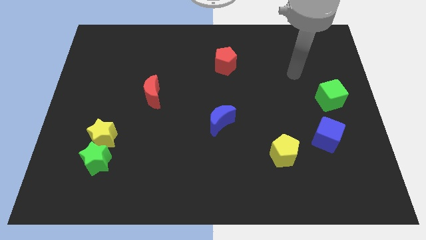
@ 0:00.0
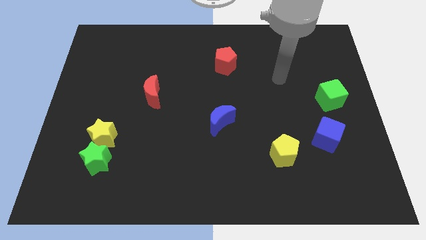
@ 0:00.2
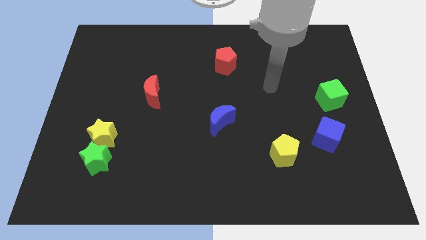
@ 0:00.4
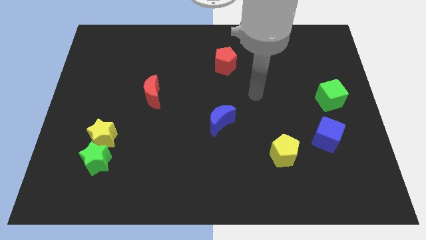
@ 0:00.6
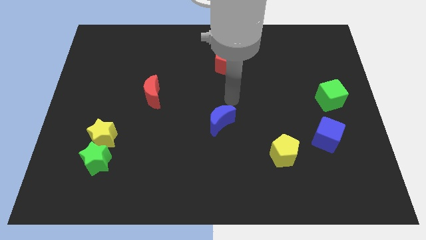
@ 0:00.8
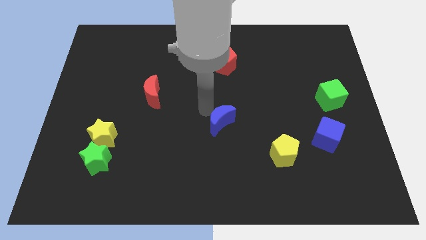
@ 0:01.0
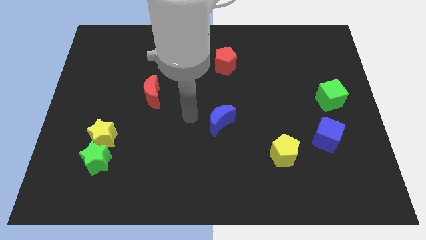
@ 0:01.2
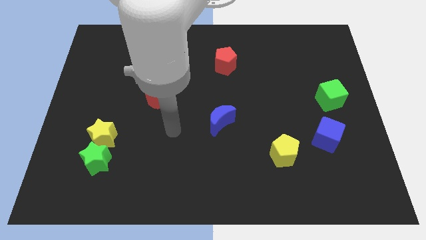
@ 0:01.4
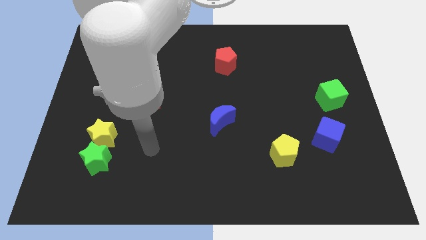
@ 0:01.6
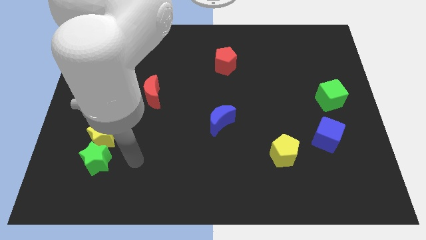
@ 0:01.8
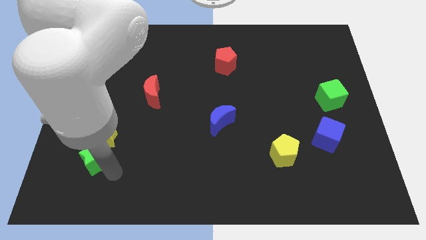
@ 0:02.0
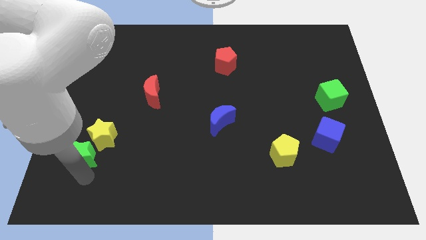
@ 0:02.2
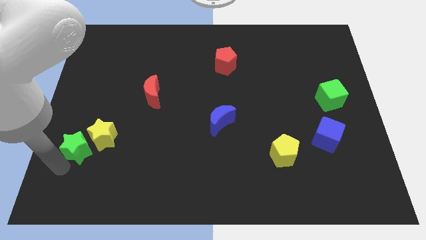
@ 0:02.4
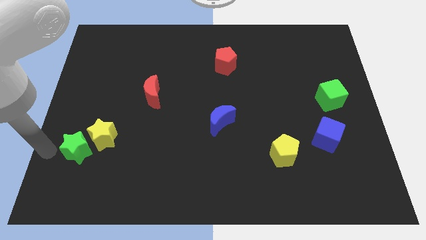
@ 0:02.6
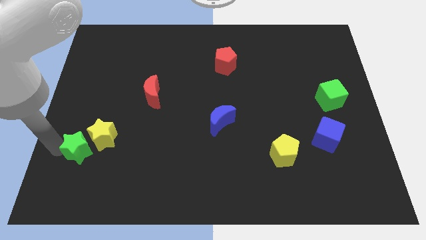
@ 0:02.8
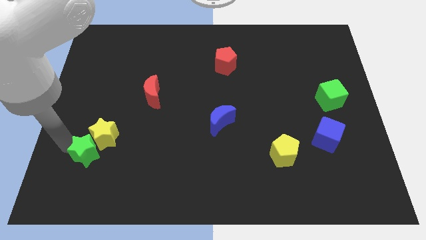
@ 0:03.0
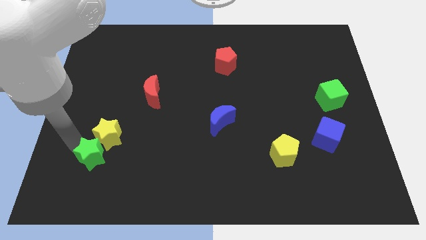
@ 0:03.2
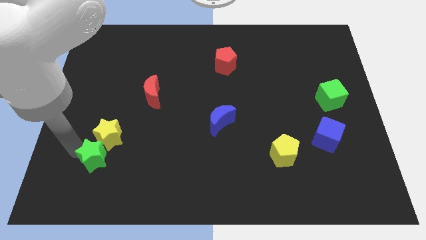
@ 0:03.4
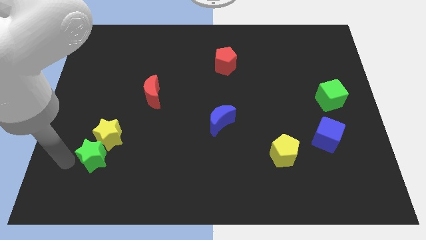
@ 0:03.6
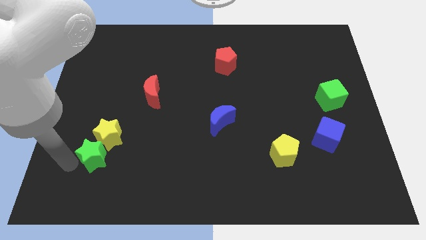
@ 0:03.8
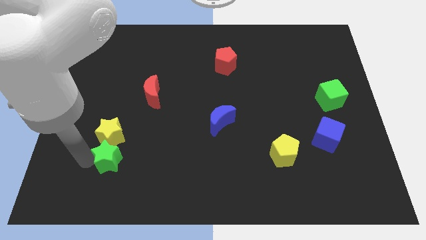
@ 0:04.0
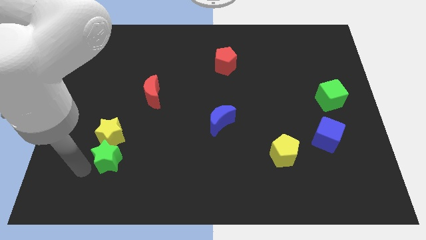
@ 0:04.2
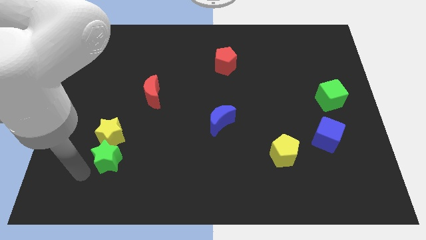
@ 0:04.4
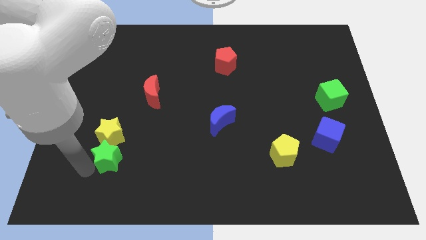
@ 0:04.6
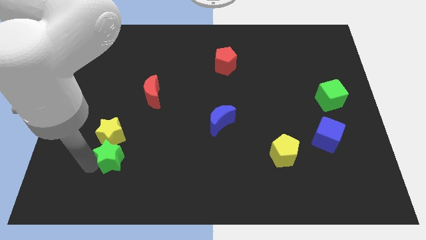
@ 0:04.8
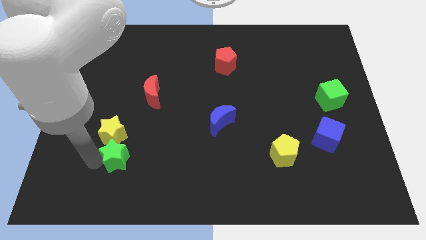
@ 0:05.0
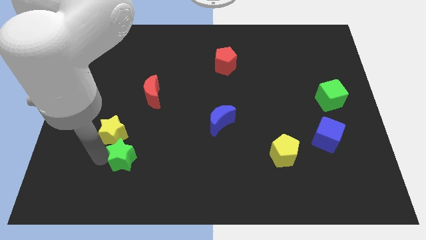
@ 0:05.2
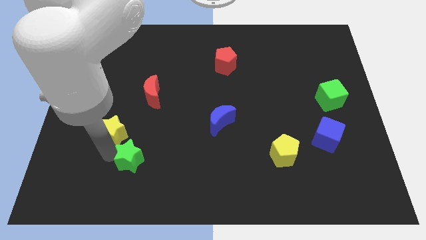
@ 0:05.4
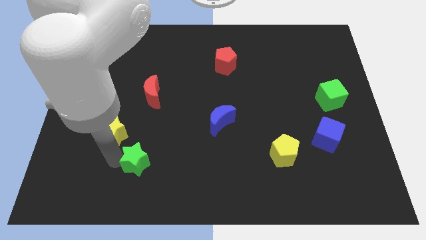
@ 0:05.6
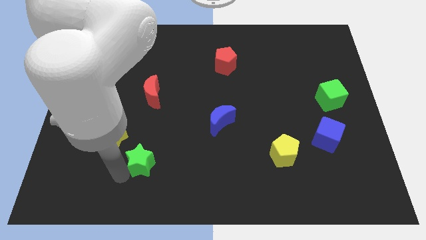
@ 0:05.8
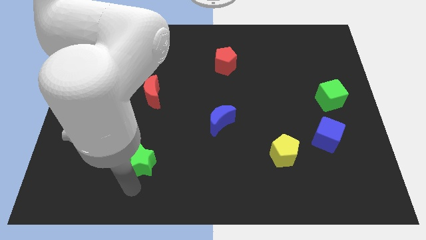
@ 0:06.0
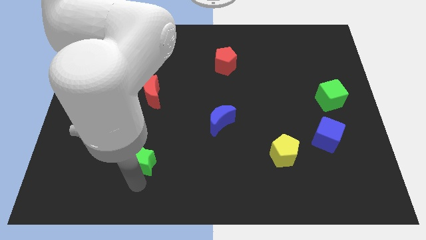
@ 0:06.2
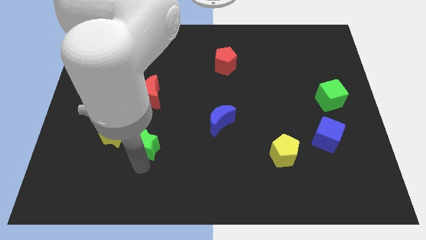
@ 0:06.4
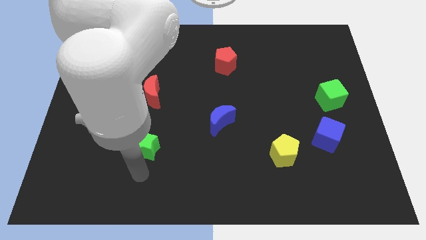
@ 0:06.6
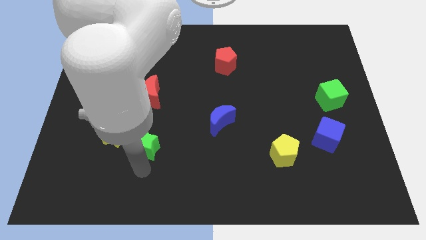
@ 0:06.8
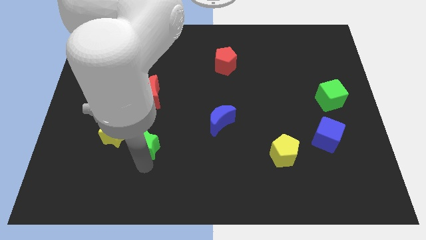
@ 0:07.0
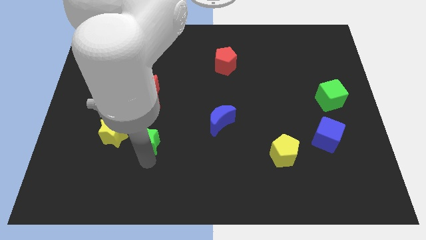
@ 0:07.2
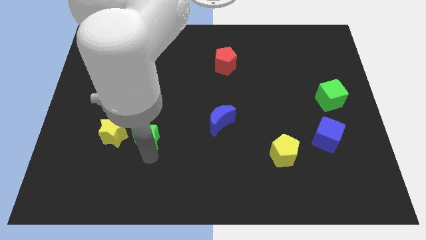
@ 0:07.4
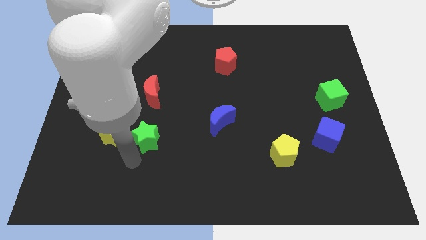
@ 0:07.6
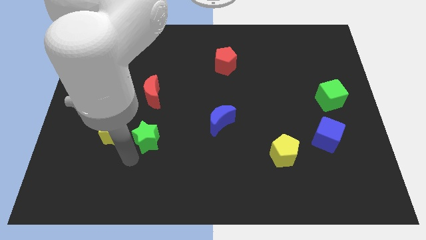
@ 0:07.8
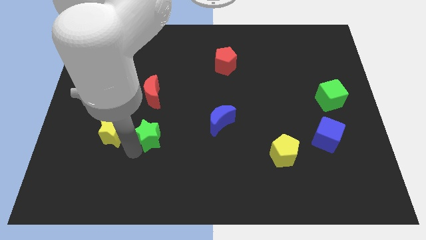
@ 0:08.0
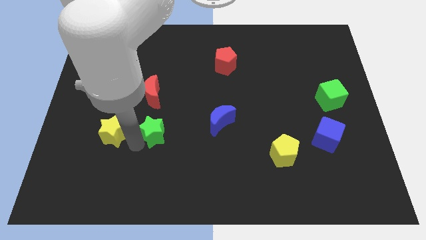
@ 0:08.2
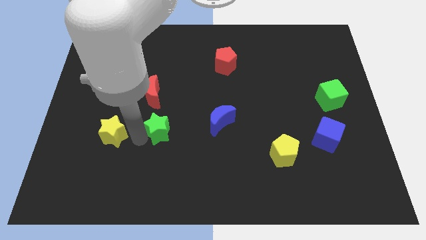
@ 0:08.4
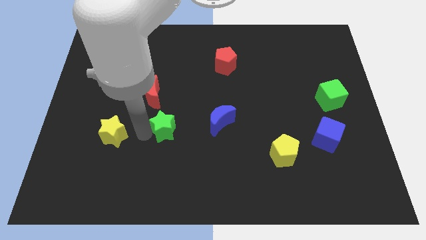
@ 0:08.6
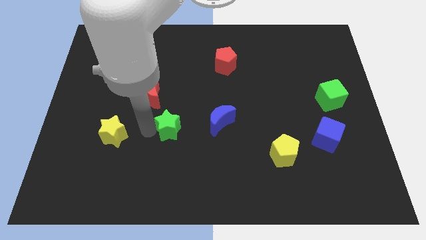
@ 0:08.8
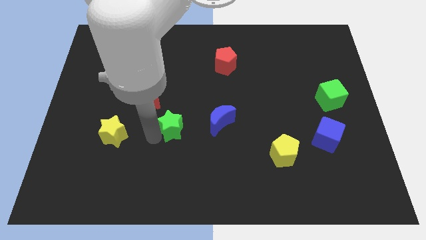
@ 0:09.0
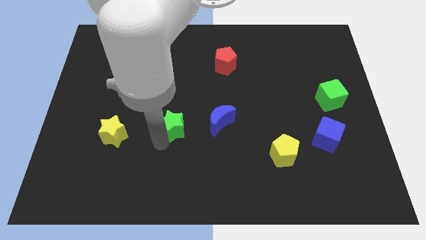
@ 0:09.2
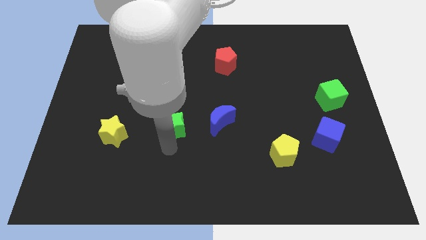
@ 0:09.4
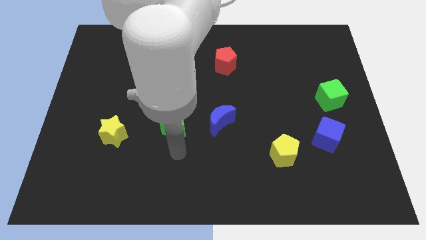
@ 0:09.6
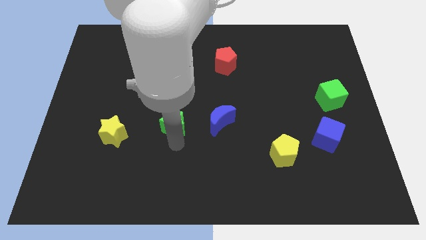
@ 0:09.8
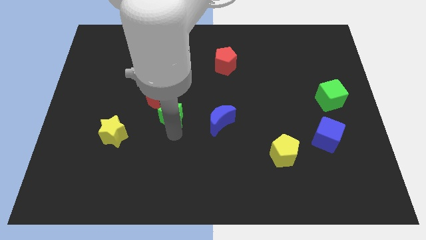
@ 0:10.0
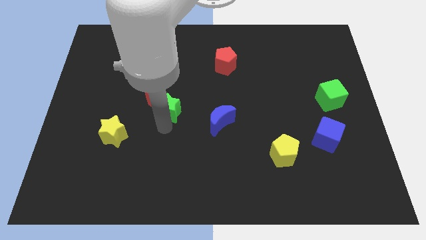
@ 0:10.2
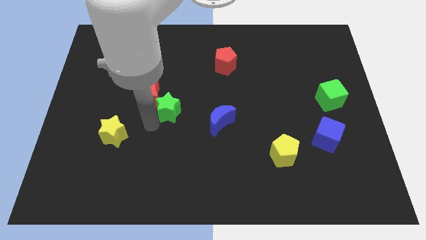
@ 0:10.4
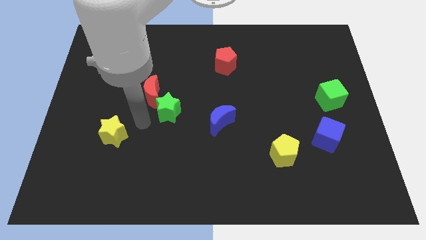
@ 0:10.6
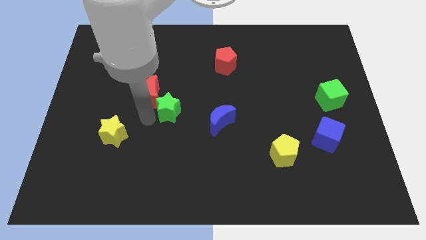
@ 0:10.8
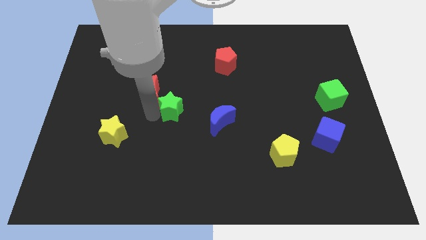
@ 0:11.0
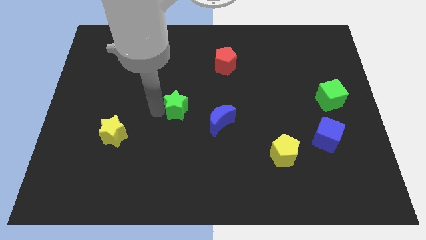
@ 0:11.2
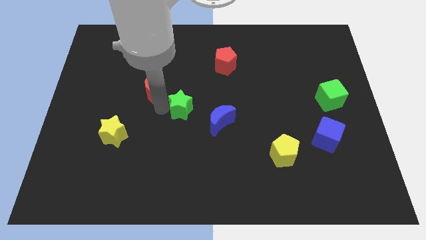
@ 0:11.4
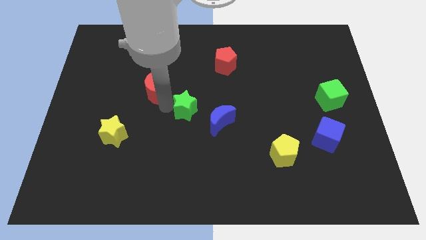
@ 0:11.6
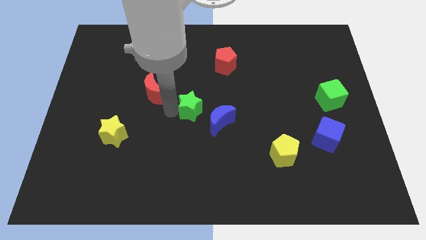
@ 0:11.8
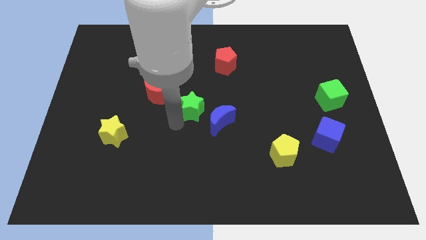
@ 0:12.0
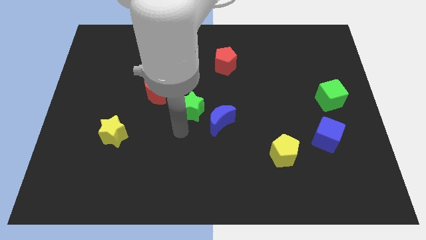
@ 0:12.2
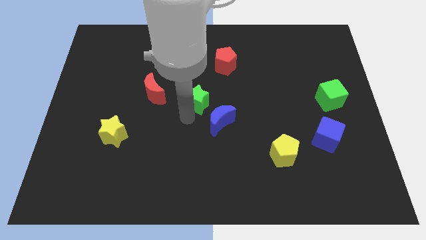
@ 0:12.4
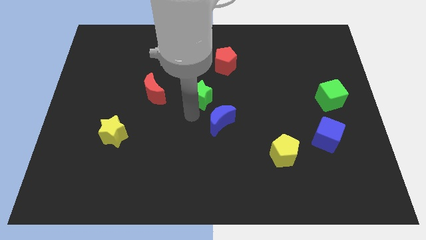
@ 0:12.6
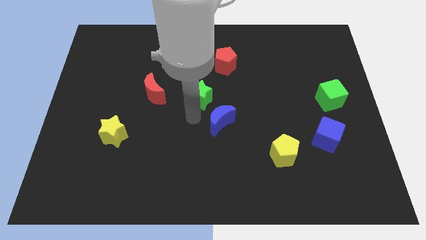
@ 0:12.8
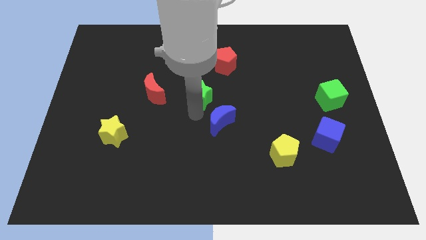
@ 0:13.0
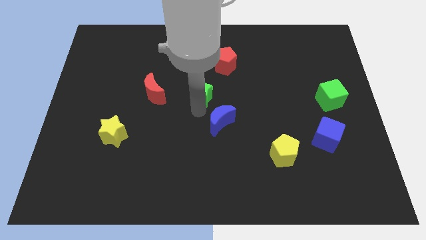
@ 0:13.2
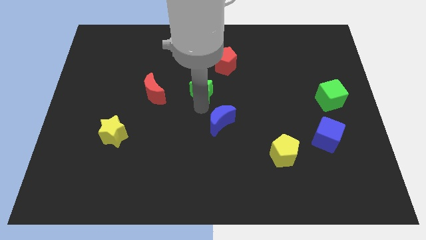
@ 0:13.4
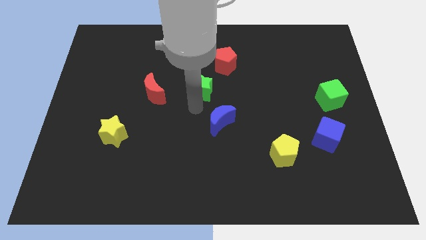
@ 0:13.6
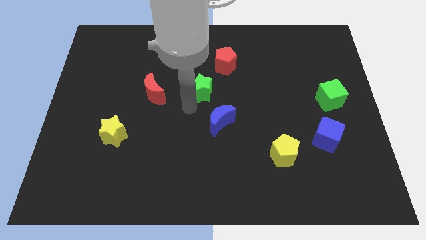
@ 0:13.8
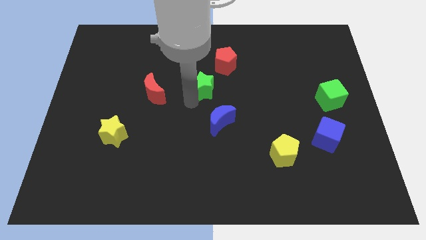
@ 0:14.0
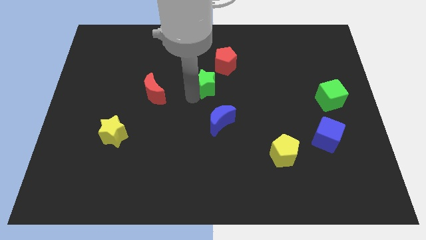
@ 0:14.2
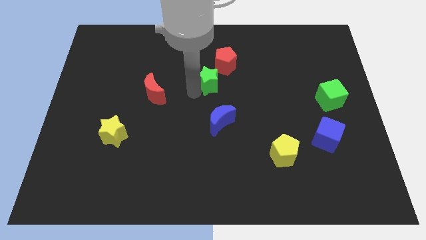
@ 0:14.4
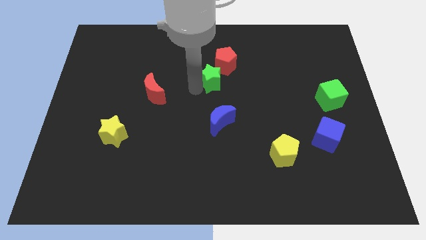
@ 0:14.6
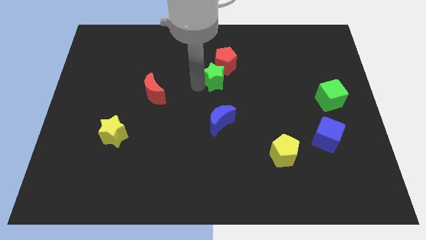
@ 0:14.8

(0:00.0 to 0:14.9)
slide the green star to the red pentagon
